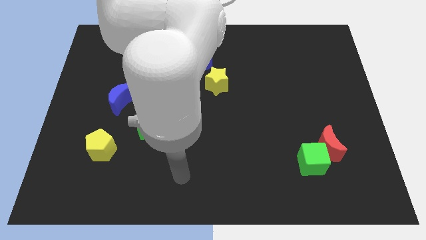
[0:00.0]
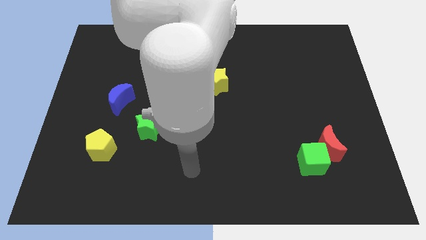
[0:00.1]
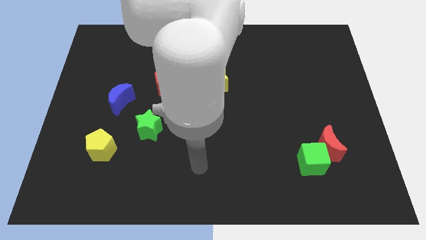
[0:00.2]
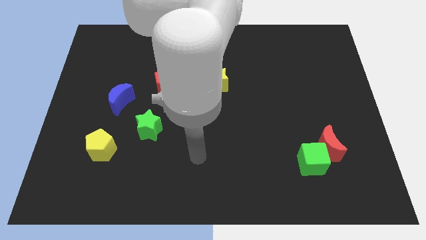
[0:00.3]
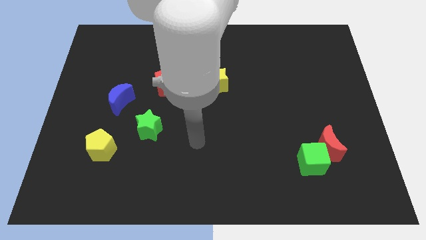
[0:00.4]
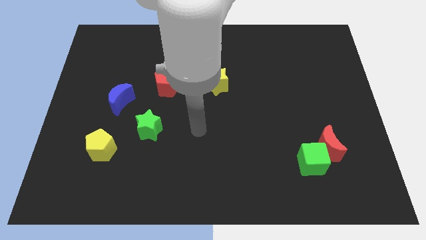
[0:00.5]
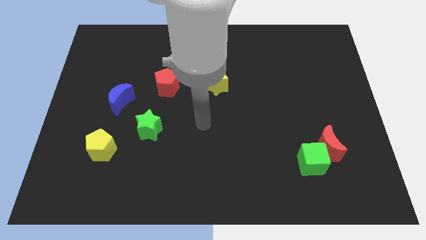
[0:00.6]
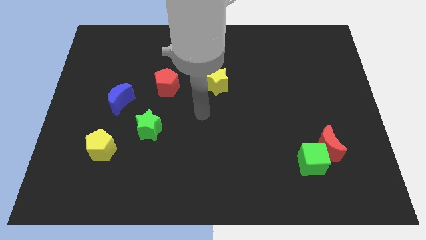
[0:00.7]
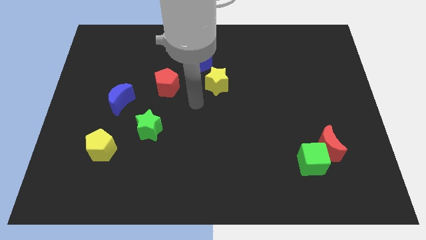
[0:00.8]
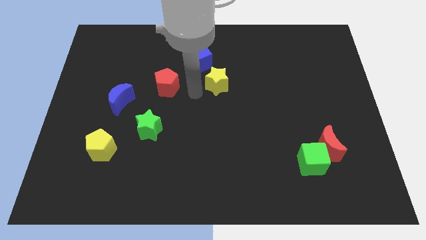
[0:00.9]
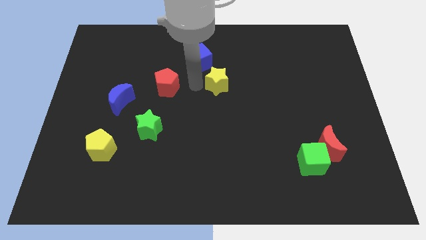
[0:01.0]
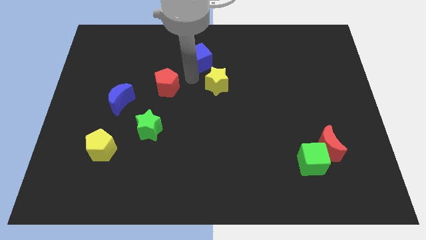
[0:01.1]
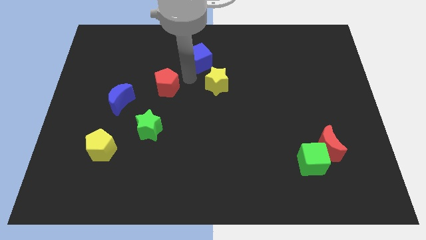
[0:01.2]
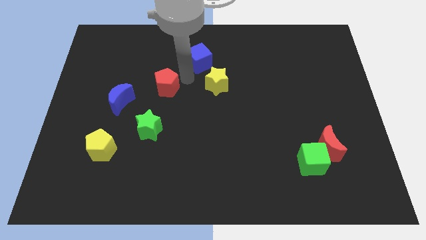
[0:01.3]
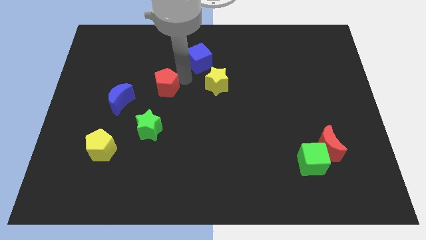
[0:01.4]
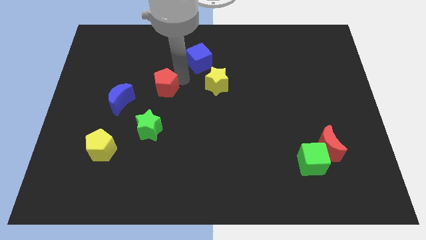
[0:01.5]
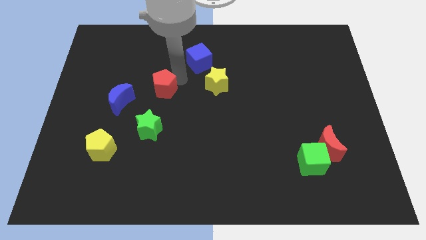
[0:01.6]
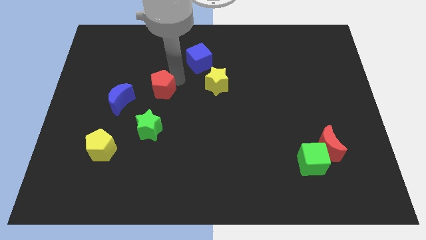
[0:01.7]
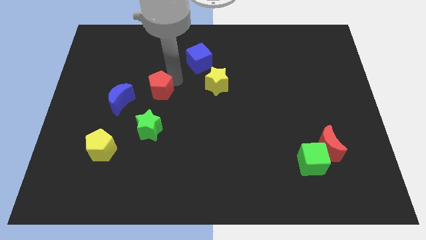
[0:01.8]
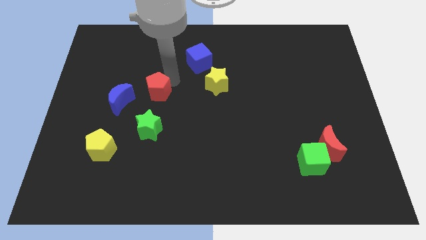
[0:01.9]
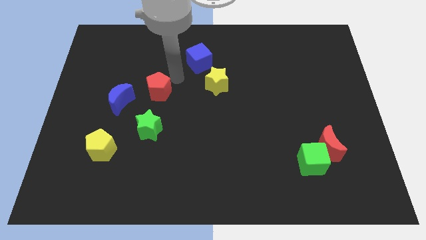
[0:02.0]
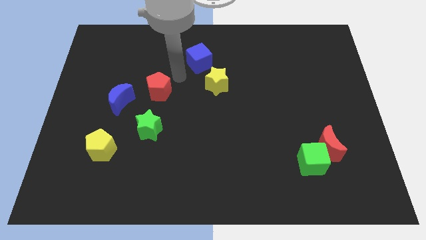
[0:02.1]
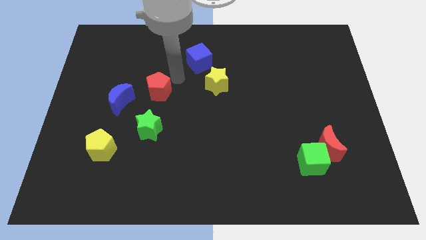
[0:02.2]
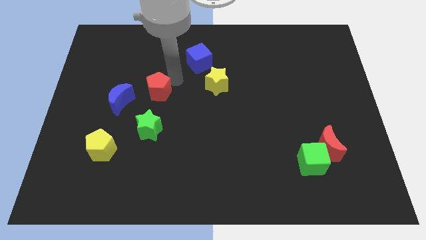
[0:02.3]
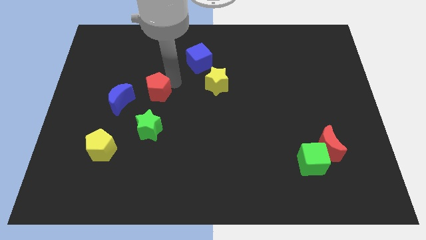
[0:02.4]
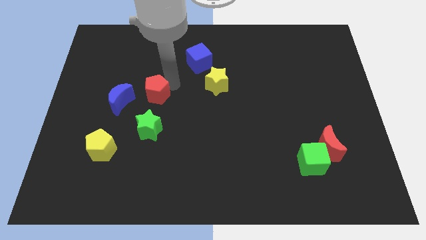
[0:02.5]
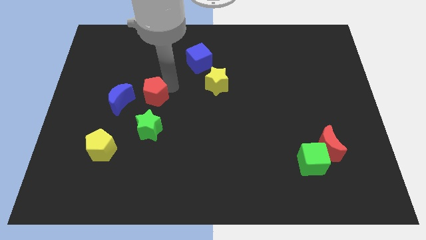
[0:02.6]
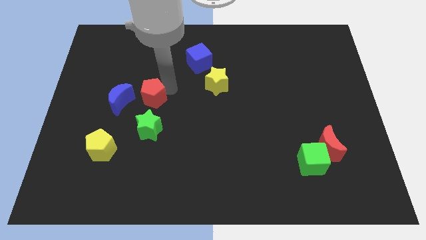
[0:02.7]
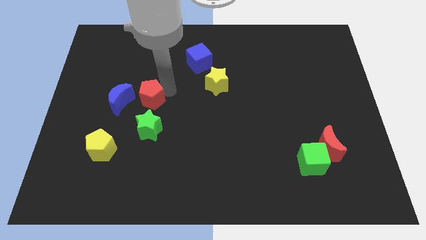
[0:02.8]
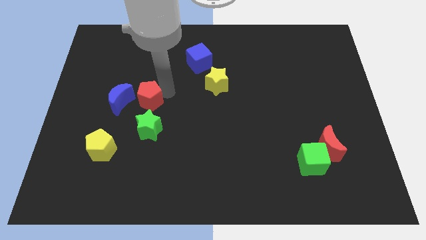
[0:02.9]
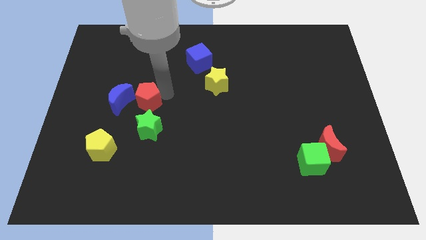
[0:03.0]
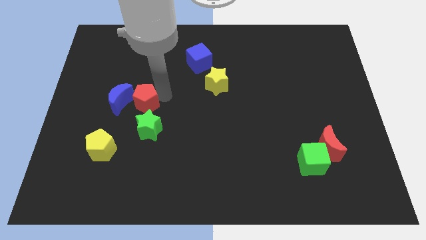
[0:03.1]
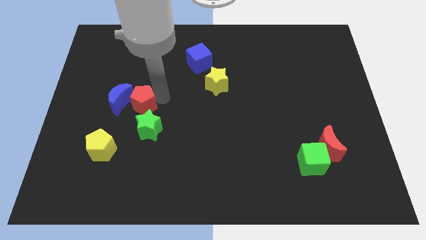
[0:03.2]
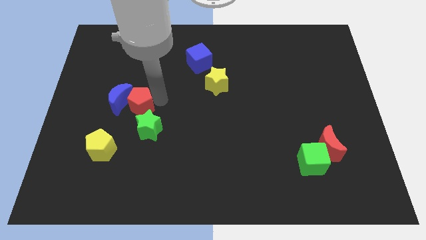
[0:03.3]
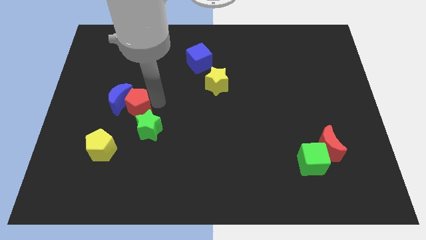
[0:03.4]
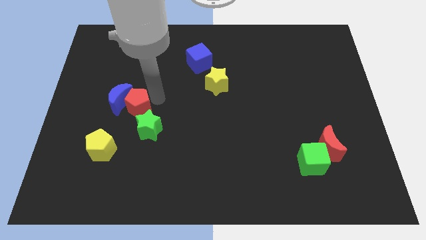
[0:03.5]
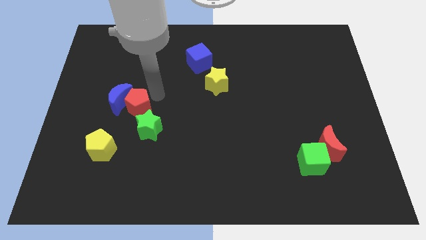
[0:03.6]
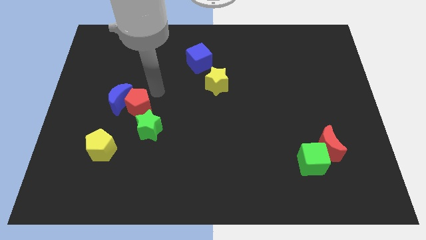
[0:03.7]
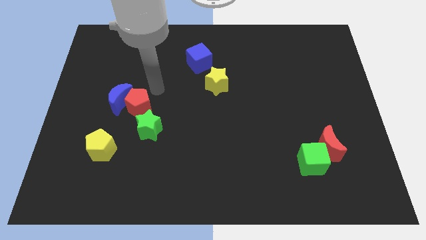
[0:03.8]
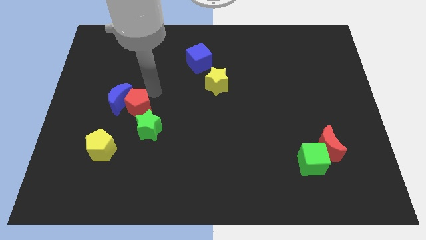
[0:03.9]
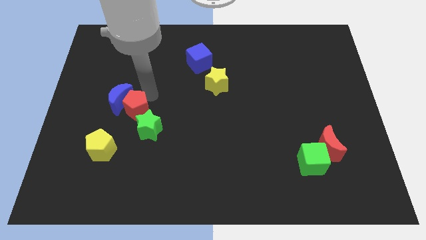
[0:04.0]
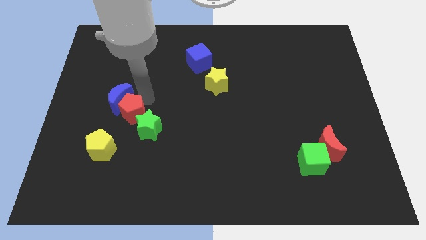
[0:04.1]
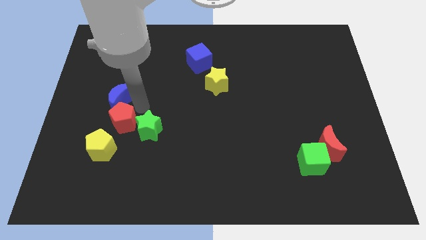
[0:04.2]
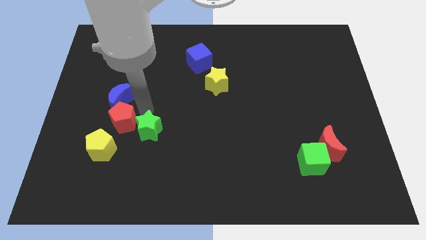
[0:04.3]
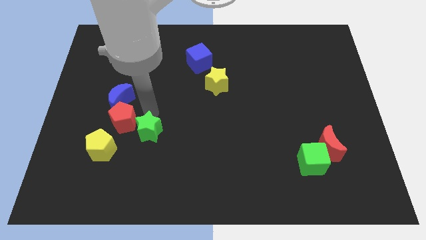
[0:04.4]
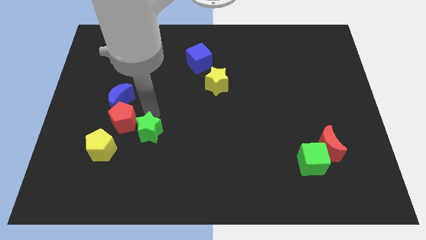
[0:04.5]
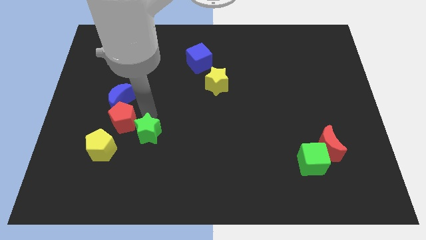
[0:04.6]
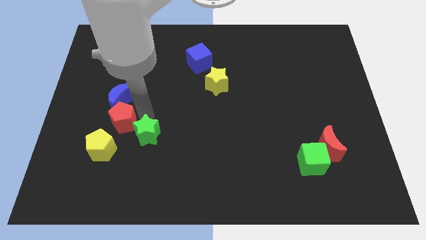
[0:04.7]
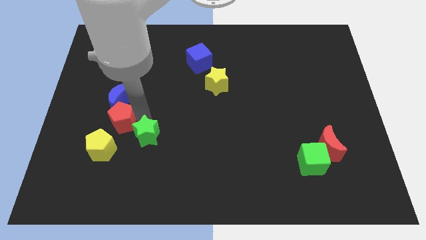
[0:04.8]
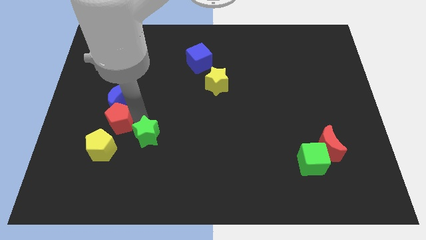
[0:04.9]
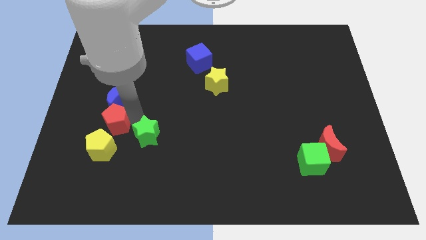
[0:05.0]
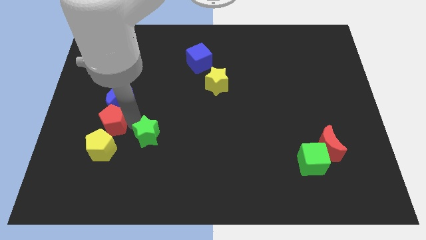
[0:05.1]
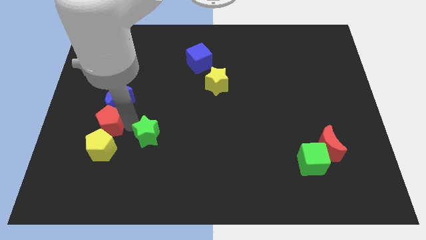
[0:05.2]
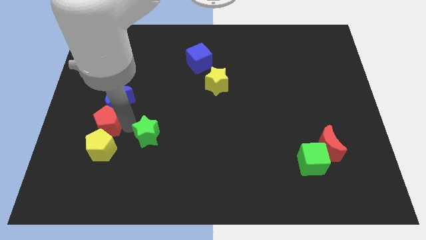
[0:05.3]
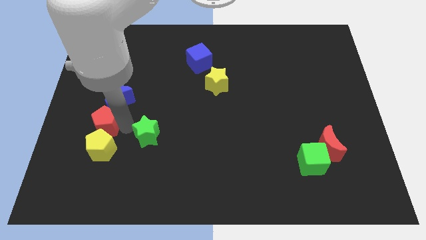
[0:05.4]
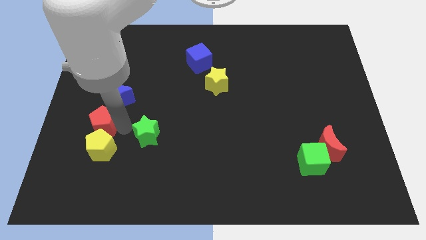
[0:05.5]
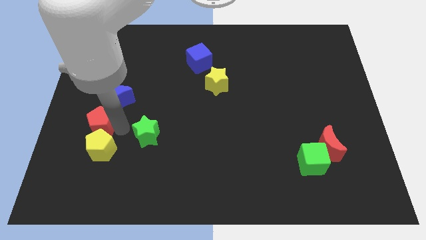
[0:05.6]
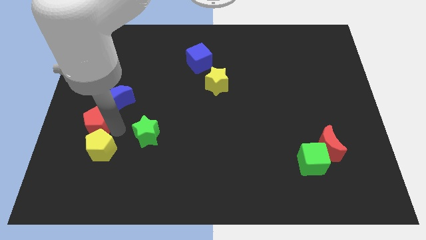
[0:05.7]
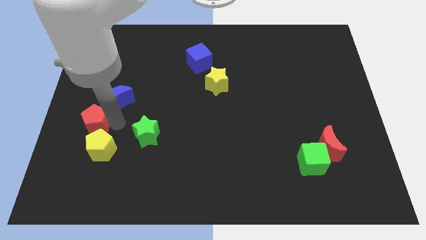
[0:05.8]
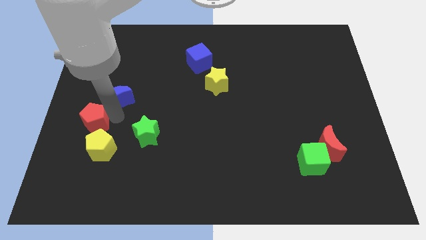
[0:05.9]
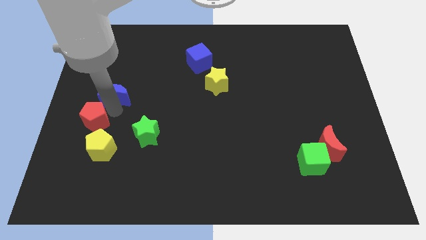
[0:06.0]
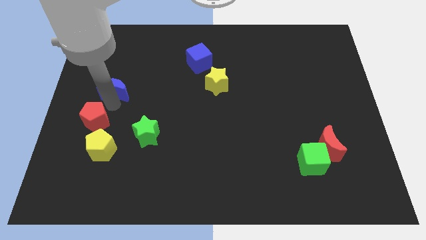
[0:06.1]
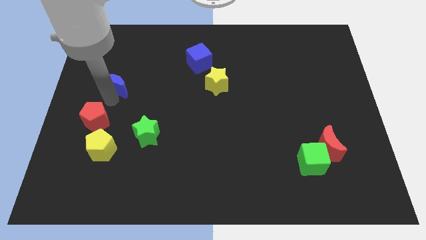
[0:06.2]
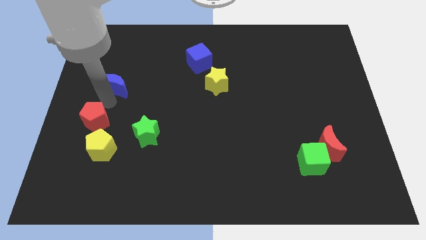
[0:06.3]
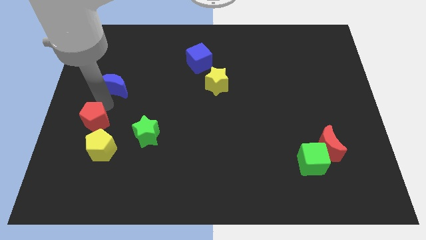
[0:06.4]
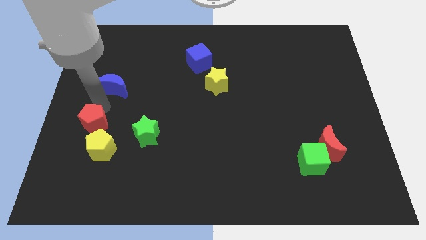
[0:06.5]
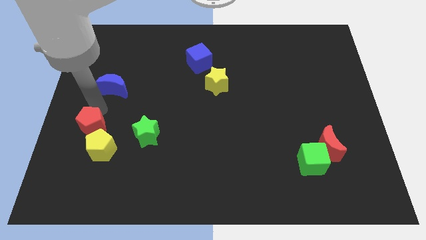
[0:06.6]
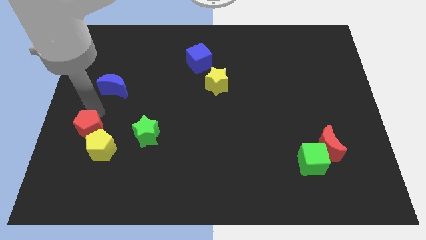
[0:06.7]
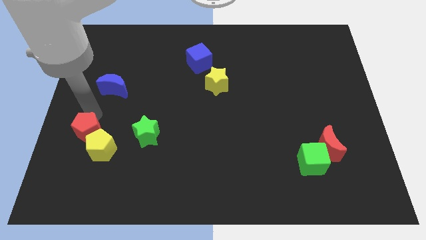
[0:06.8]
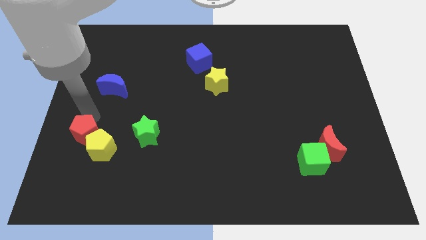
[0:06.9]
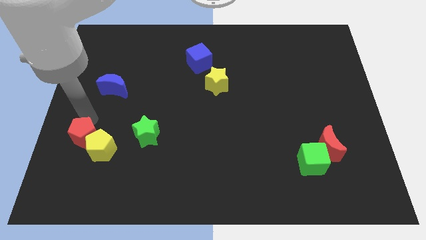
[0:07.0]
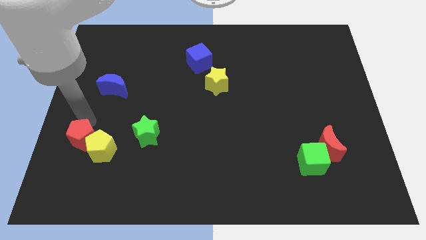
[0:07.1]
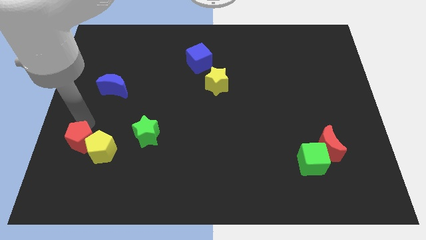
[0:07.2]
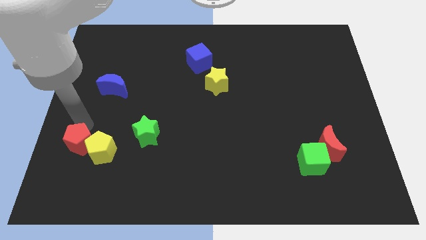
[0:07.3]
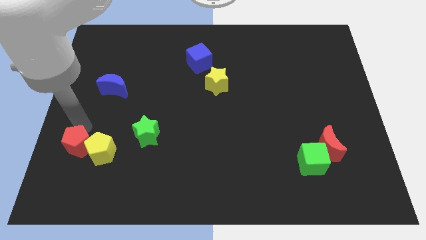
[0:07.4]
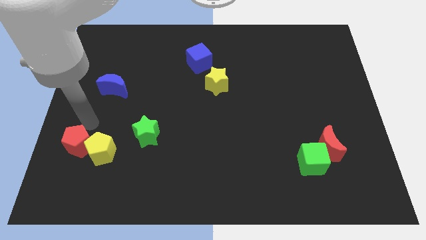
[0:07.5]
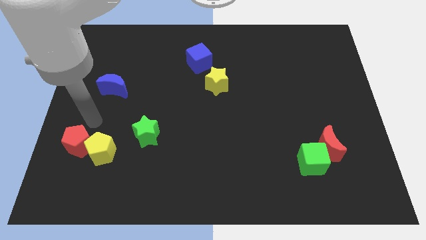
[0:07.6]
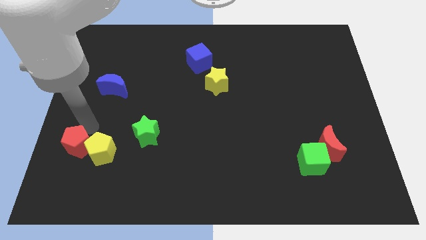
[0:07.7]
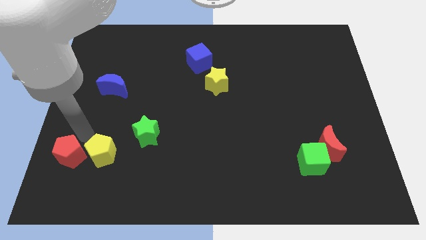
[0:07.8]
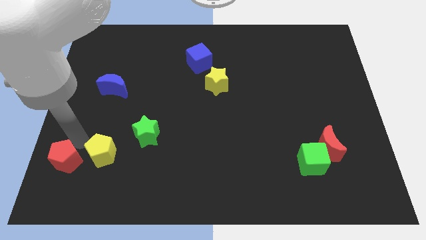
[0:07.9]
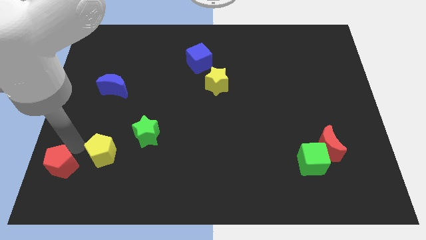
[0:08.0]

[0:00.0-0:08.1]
put the red pentagon to the bottom left corner
